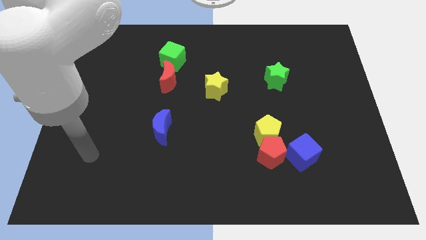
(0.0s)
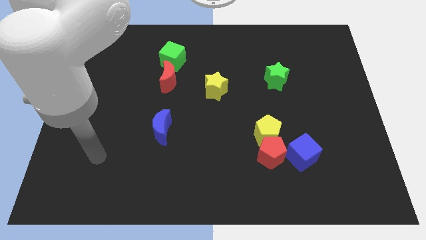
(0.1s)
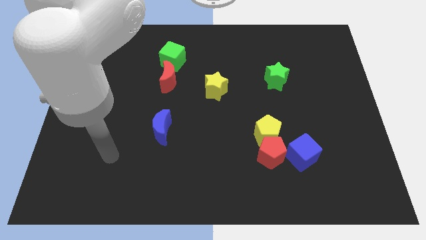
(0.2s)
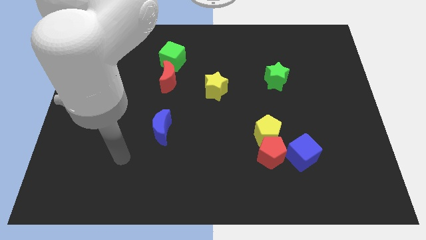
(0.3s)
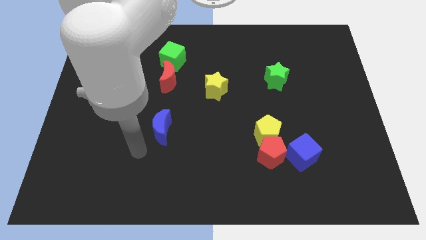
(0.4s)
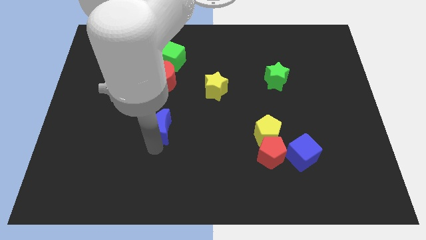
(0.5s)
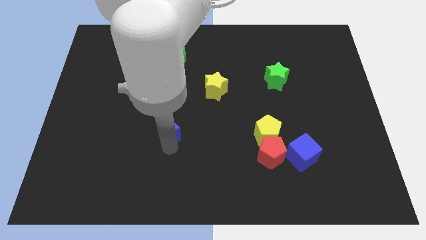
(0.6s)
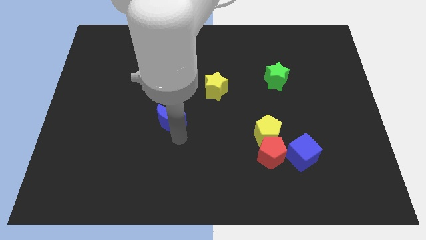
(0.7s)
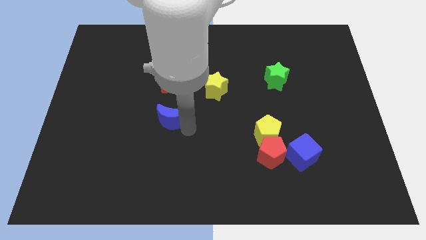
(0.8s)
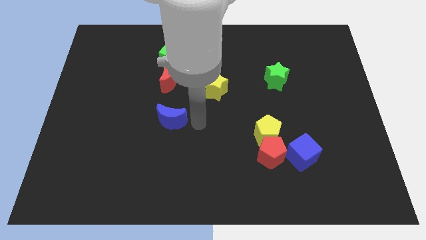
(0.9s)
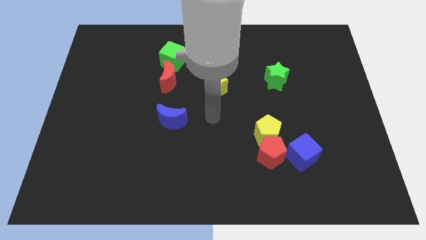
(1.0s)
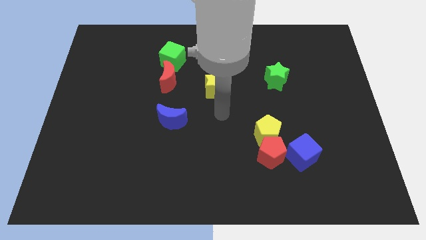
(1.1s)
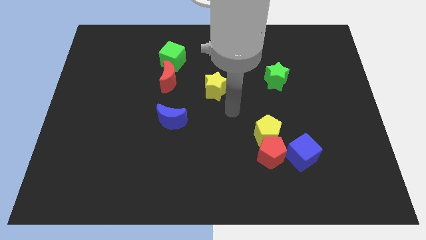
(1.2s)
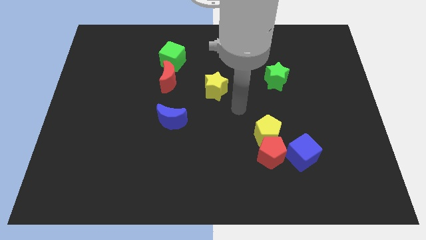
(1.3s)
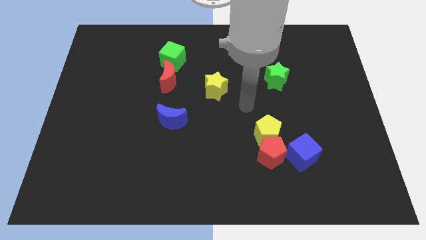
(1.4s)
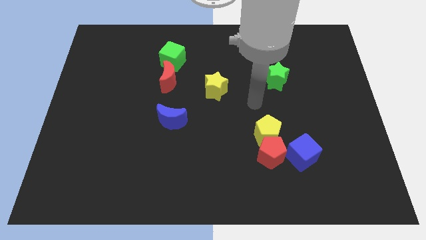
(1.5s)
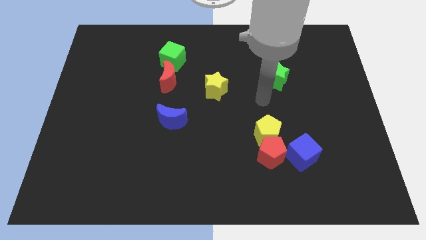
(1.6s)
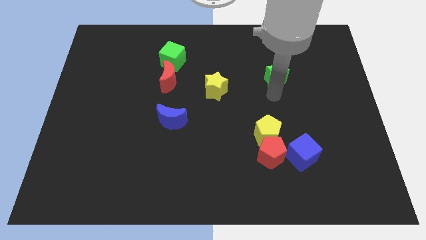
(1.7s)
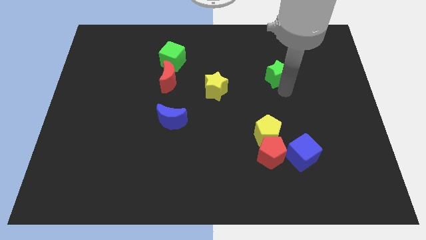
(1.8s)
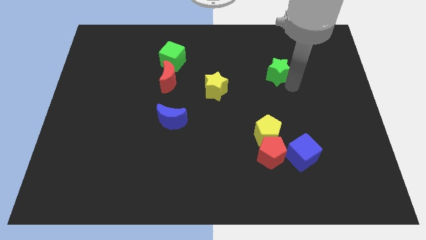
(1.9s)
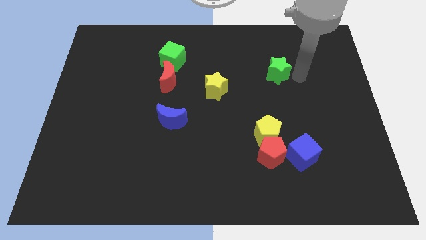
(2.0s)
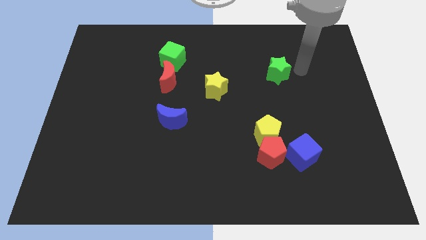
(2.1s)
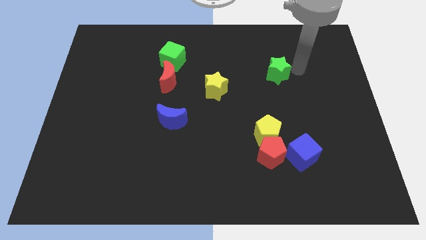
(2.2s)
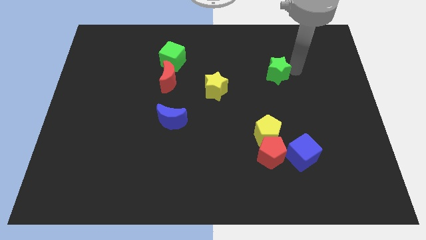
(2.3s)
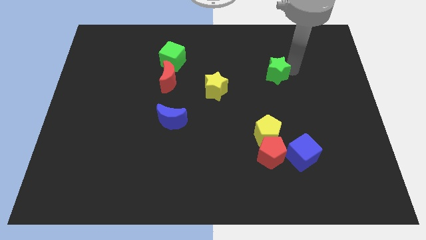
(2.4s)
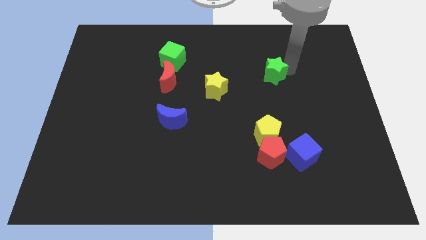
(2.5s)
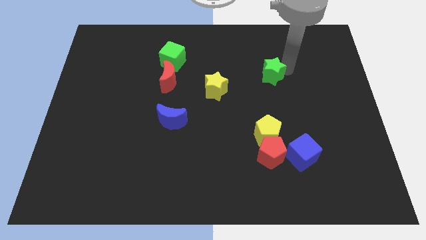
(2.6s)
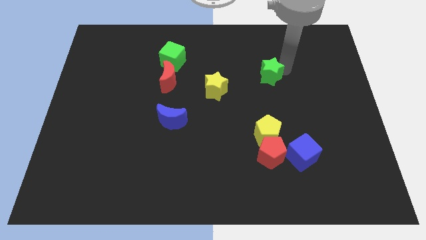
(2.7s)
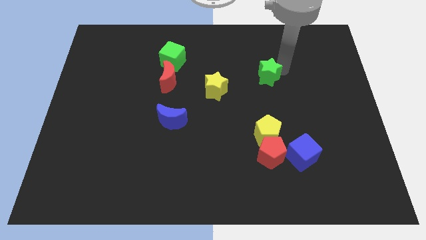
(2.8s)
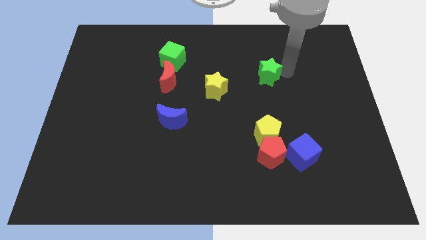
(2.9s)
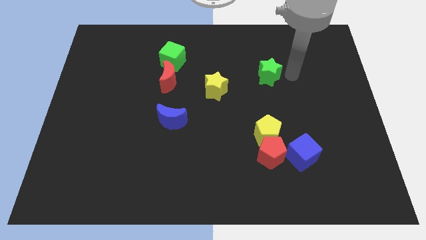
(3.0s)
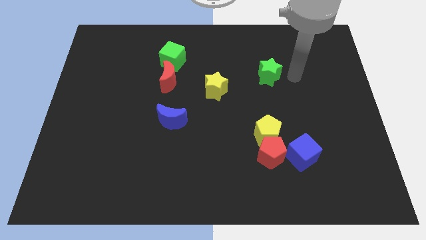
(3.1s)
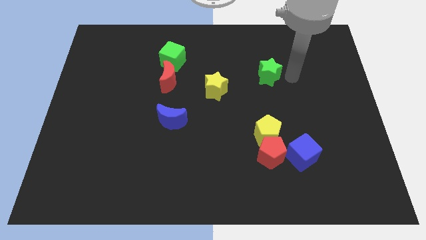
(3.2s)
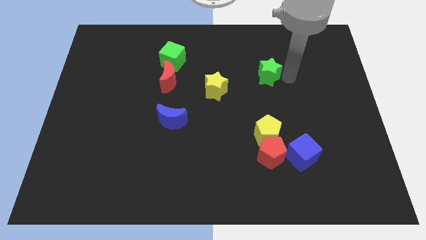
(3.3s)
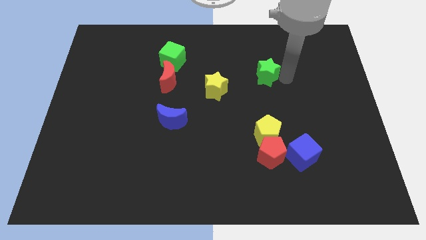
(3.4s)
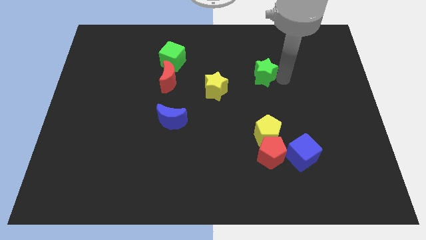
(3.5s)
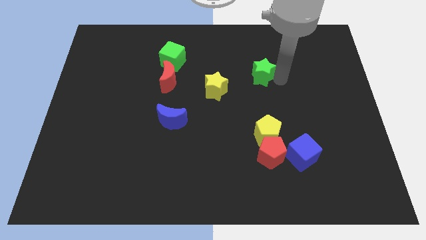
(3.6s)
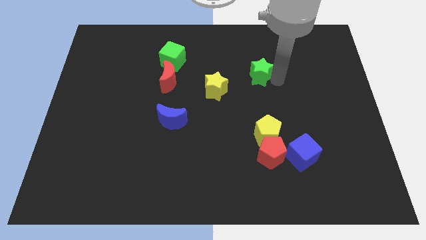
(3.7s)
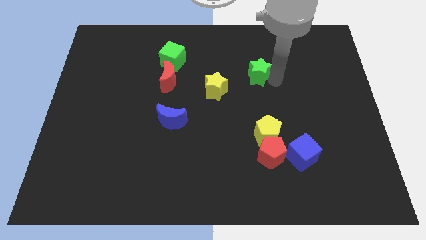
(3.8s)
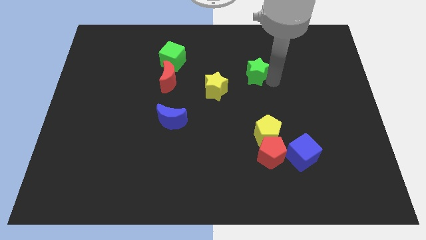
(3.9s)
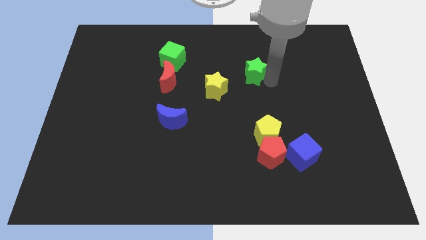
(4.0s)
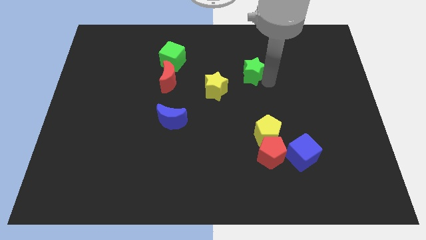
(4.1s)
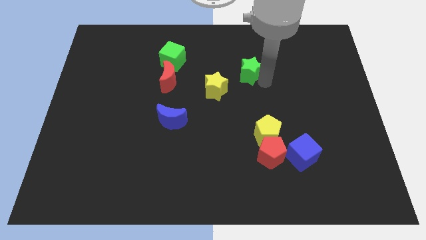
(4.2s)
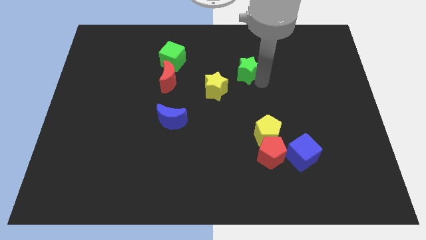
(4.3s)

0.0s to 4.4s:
move the green star left a bit

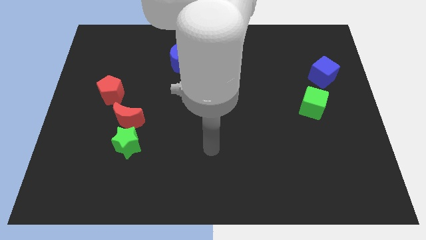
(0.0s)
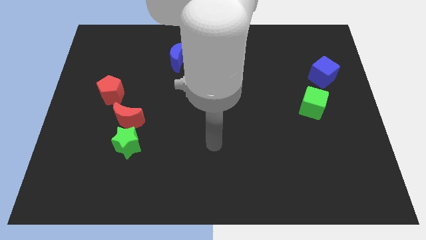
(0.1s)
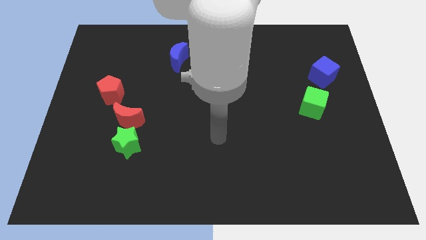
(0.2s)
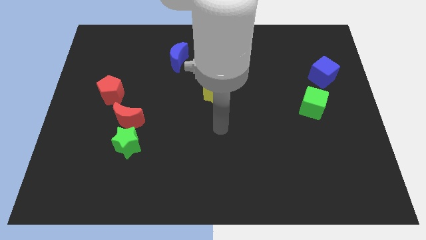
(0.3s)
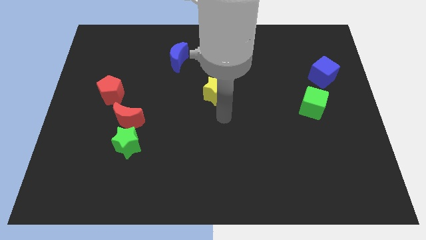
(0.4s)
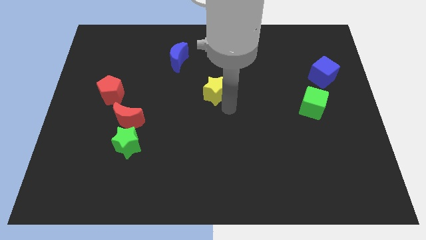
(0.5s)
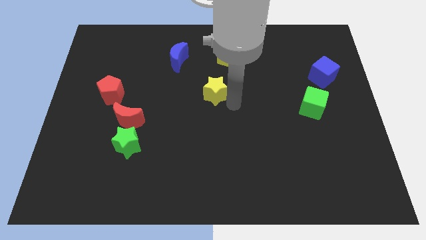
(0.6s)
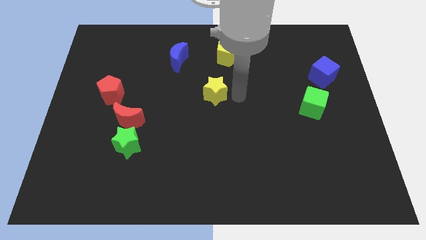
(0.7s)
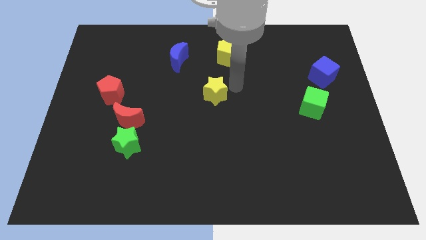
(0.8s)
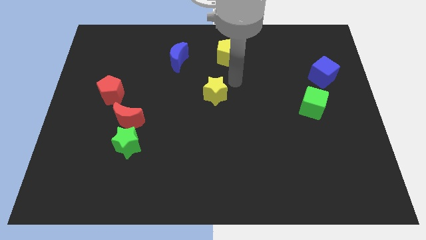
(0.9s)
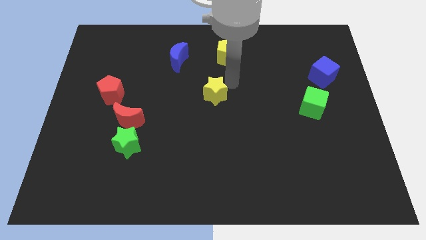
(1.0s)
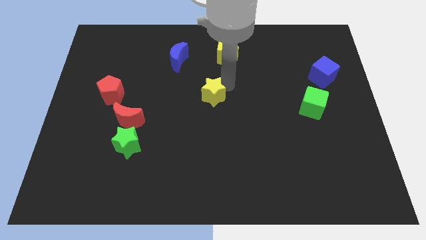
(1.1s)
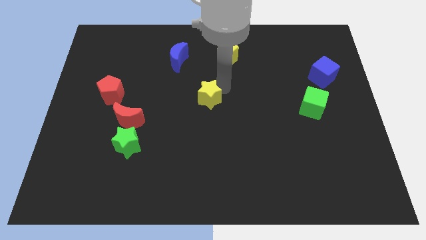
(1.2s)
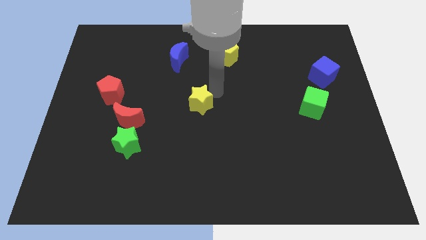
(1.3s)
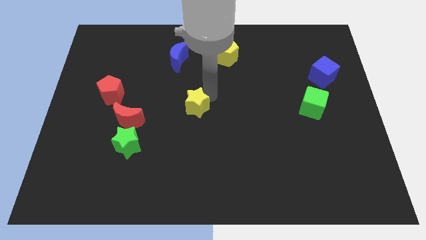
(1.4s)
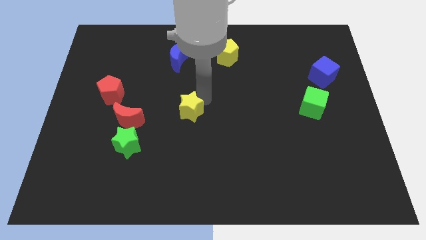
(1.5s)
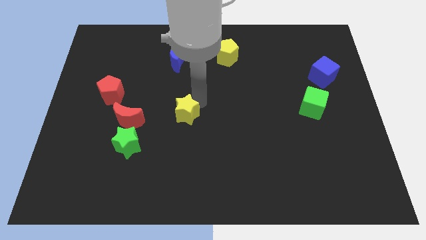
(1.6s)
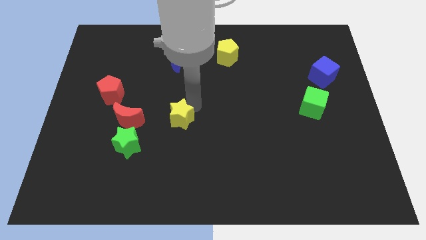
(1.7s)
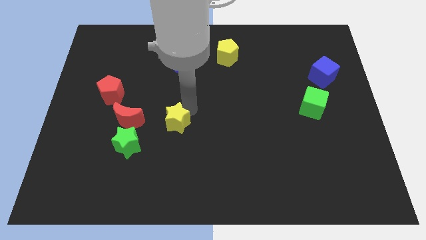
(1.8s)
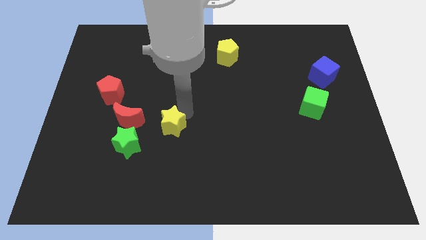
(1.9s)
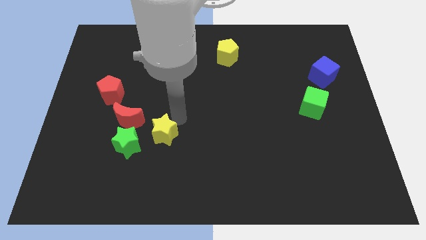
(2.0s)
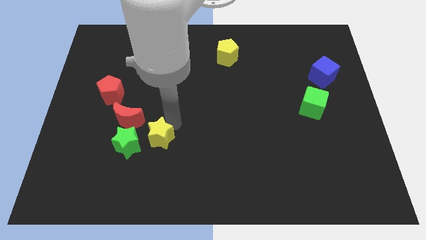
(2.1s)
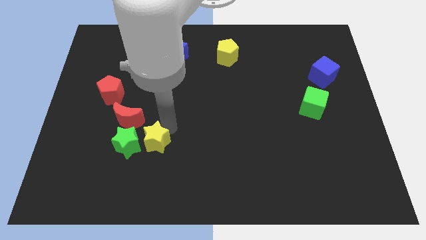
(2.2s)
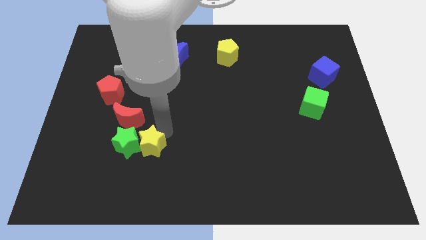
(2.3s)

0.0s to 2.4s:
move the yellow star downwards and left

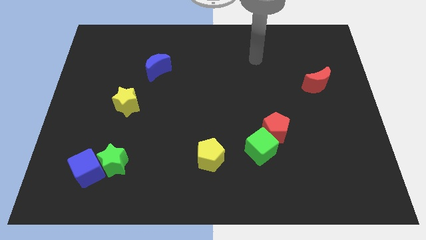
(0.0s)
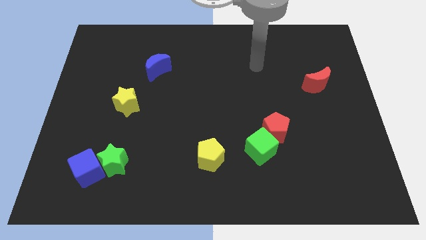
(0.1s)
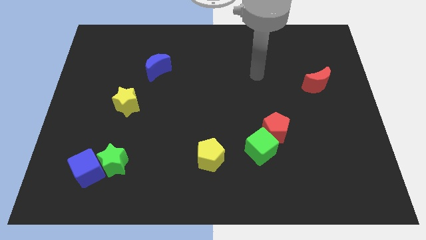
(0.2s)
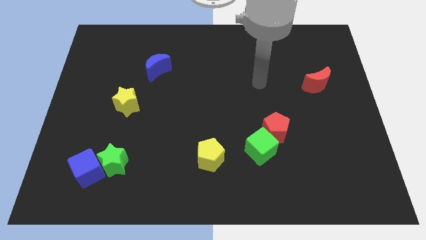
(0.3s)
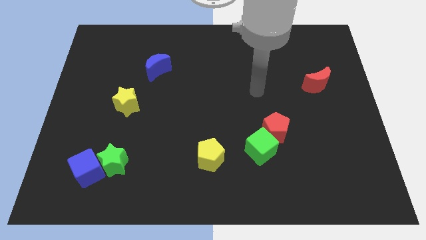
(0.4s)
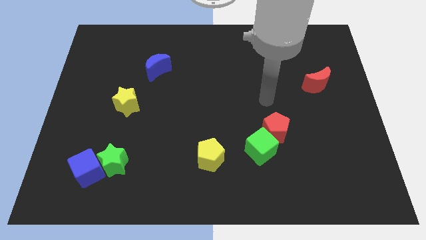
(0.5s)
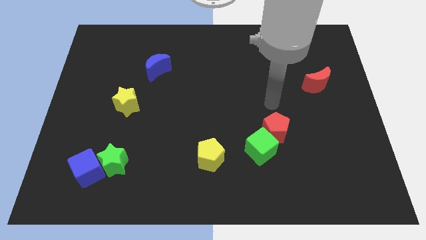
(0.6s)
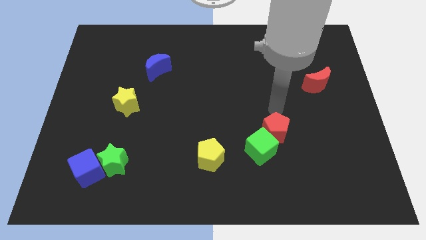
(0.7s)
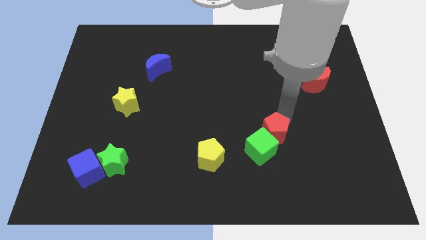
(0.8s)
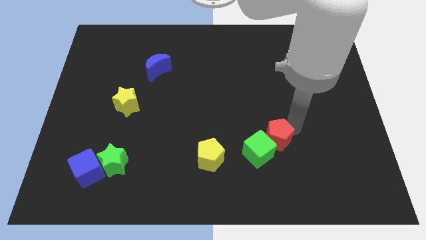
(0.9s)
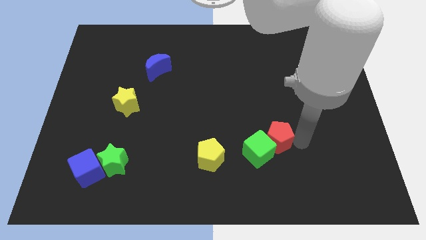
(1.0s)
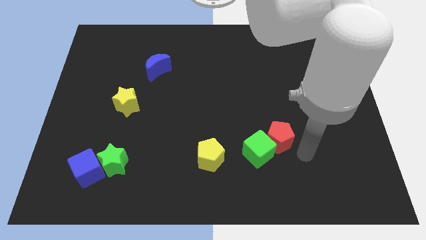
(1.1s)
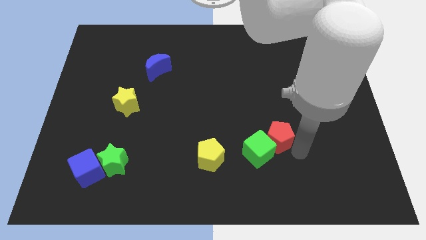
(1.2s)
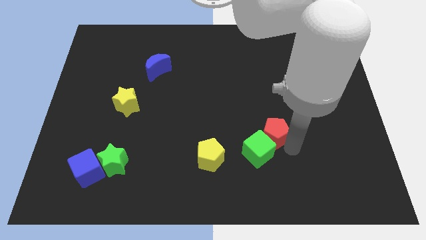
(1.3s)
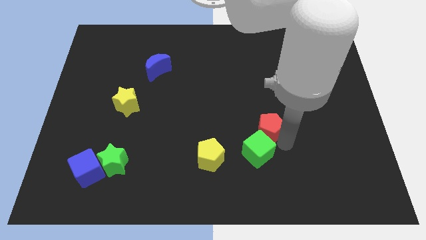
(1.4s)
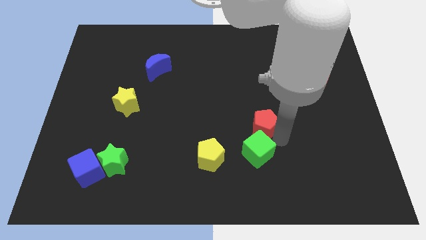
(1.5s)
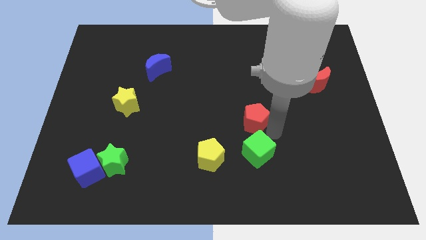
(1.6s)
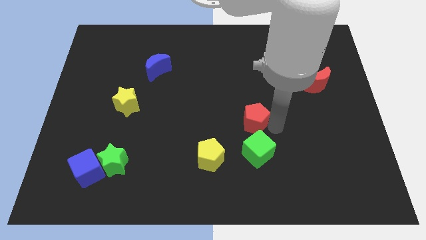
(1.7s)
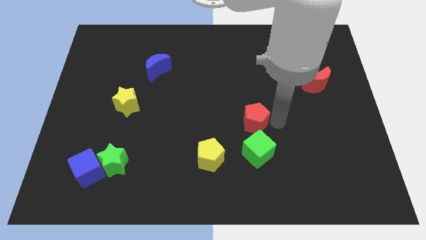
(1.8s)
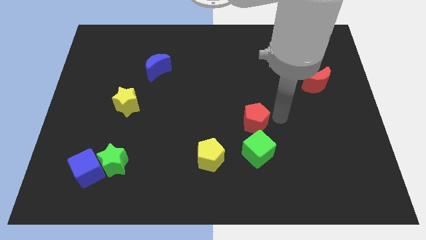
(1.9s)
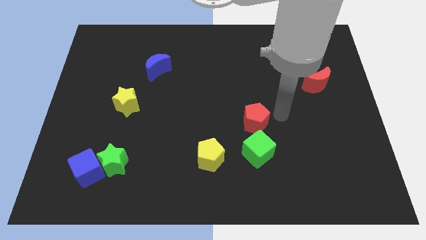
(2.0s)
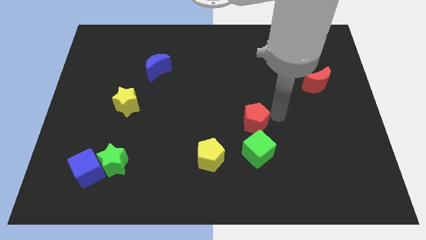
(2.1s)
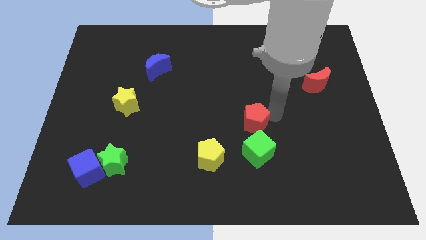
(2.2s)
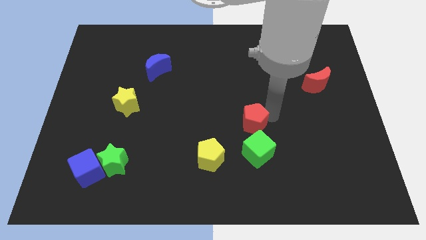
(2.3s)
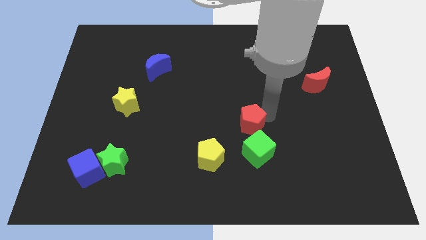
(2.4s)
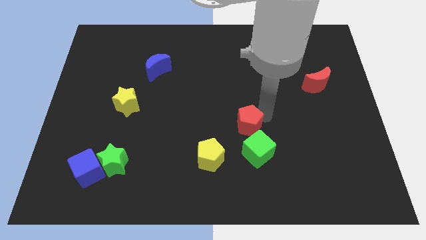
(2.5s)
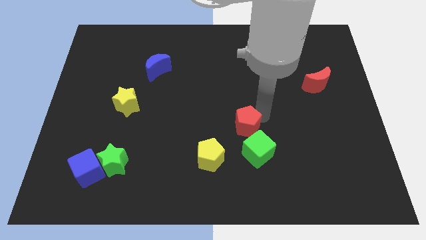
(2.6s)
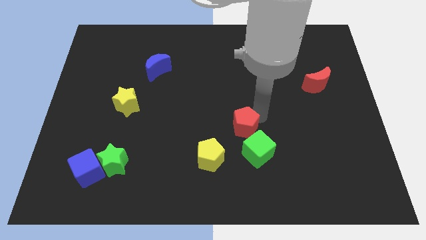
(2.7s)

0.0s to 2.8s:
move the red pentagon left a little bit
